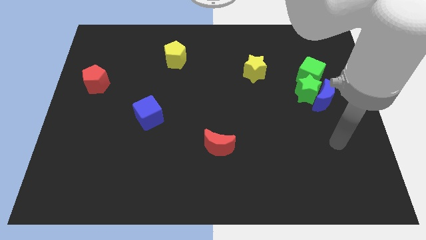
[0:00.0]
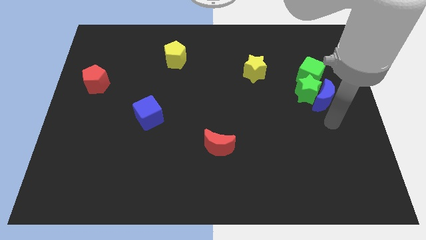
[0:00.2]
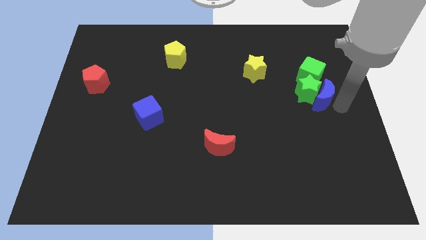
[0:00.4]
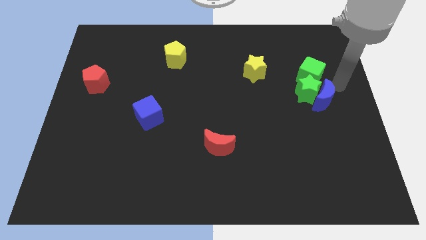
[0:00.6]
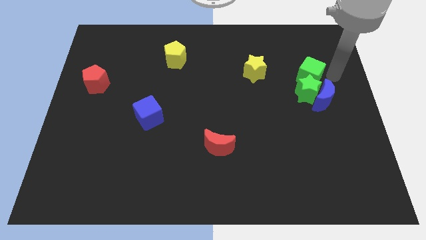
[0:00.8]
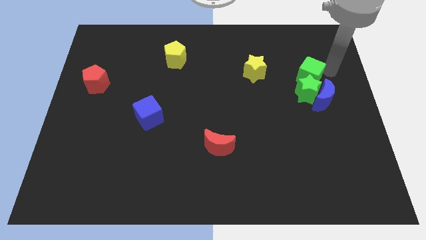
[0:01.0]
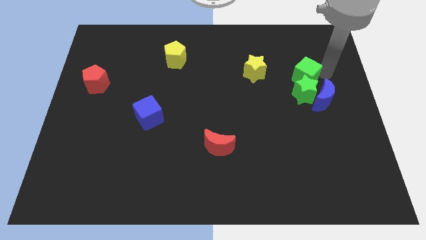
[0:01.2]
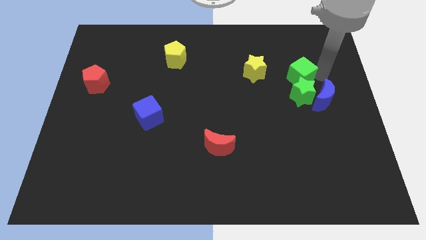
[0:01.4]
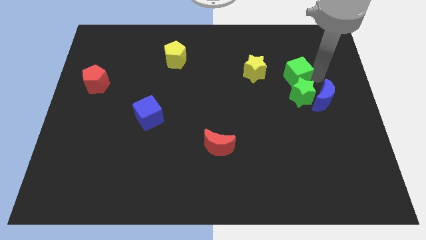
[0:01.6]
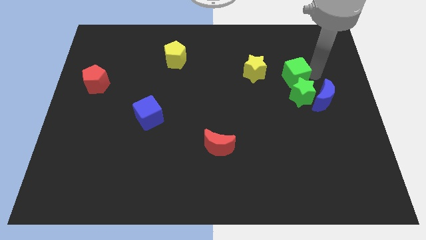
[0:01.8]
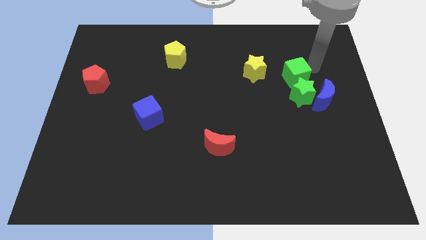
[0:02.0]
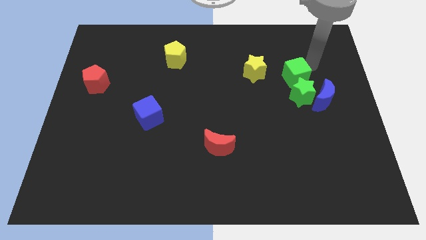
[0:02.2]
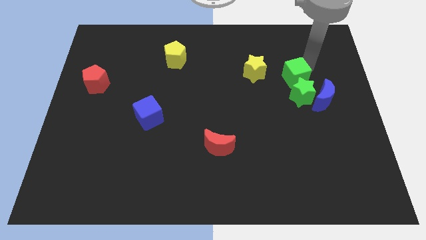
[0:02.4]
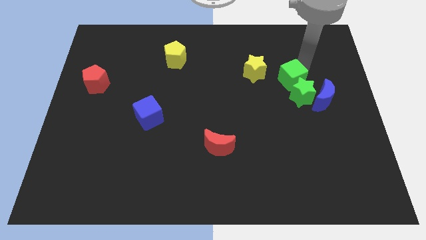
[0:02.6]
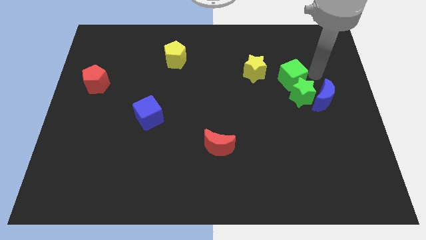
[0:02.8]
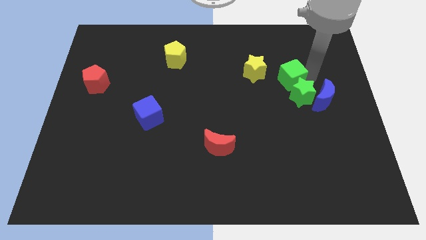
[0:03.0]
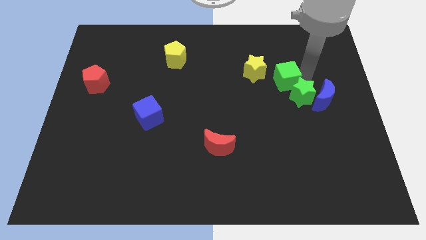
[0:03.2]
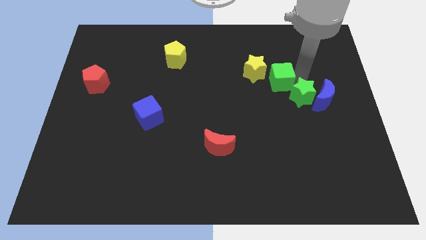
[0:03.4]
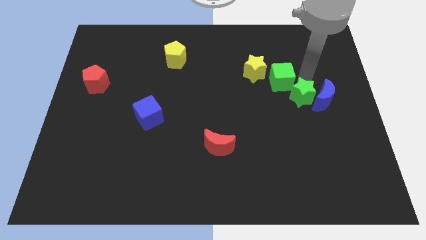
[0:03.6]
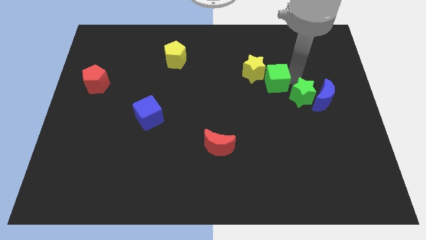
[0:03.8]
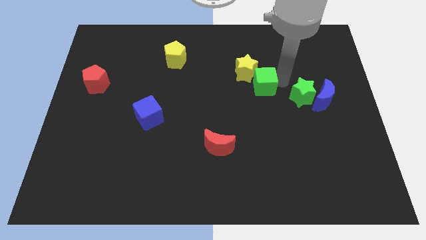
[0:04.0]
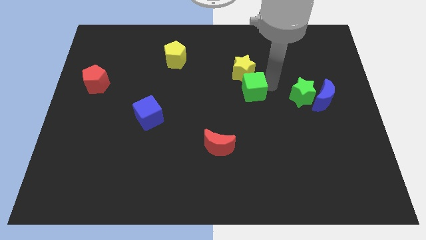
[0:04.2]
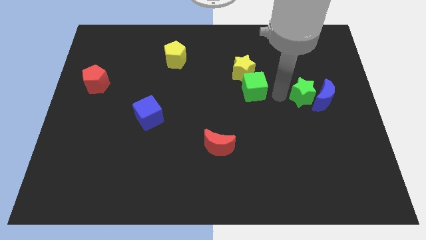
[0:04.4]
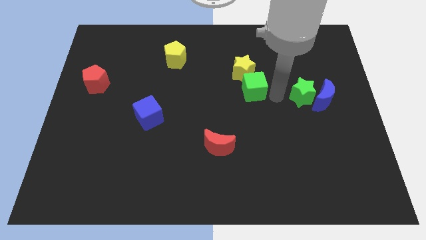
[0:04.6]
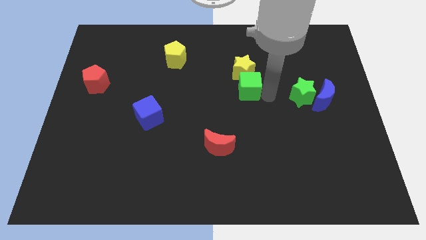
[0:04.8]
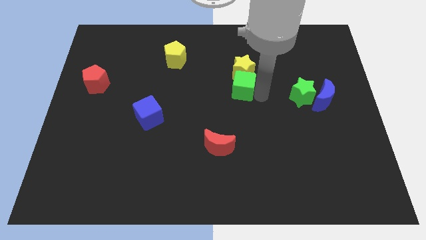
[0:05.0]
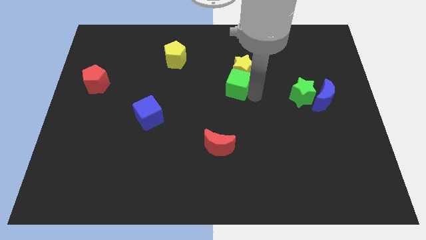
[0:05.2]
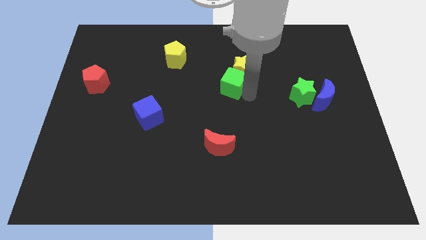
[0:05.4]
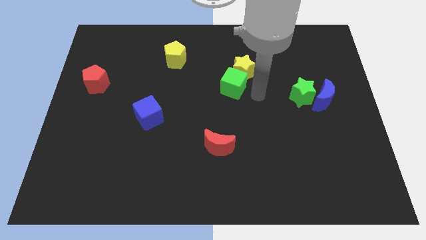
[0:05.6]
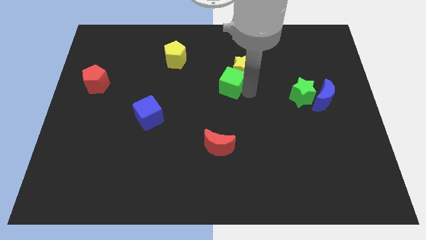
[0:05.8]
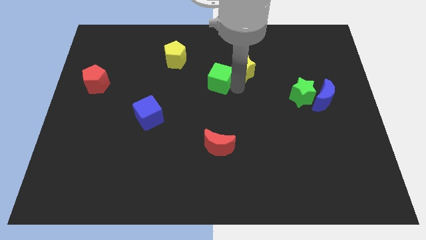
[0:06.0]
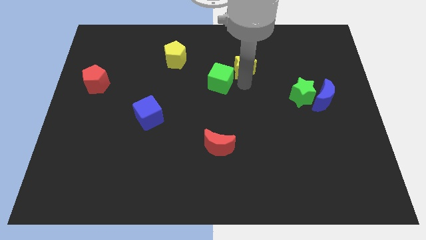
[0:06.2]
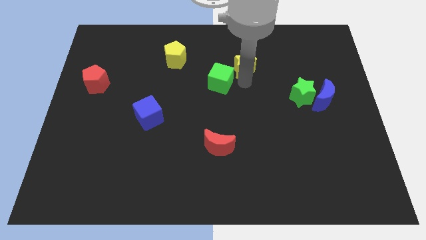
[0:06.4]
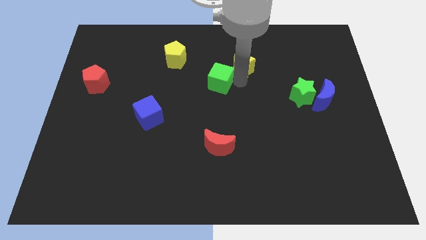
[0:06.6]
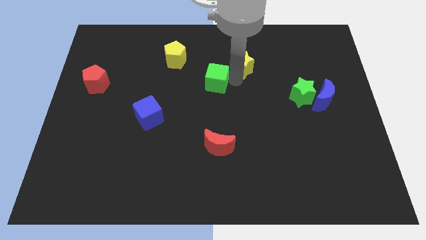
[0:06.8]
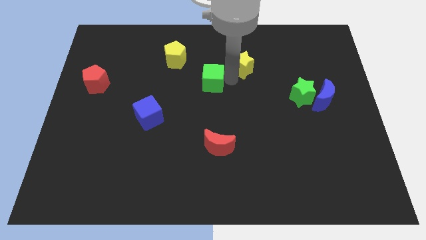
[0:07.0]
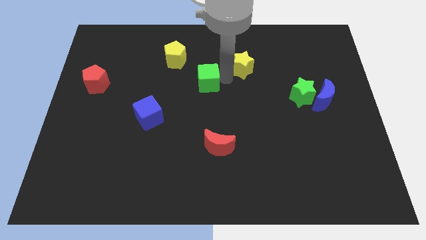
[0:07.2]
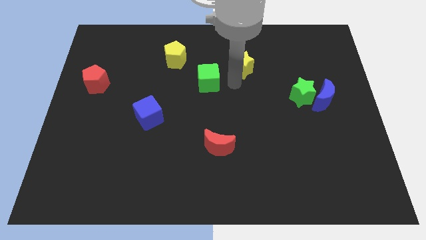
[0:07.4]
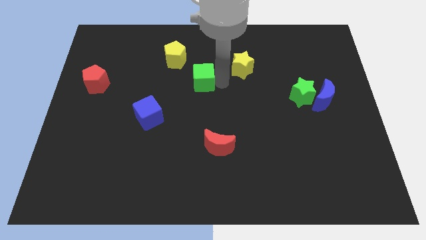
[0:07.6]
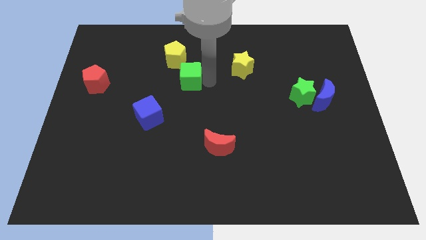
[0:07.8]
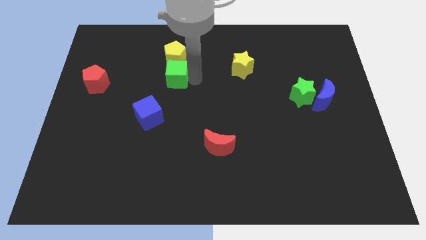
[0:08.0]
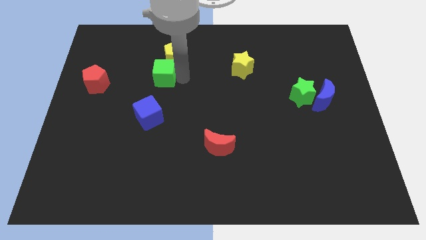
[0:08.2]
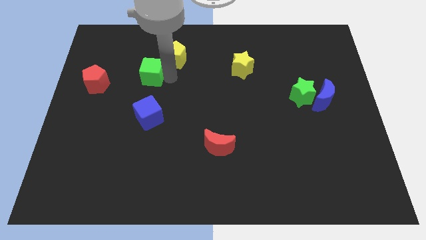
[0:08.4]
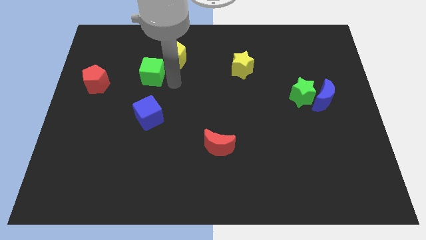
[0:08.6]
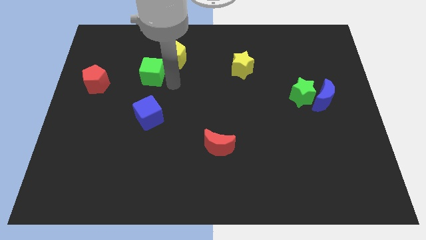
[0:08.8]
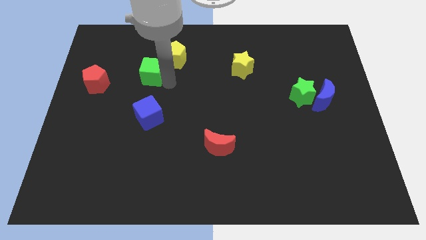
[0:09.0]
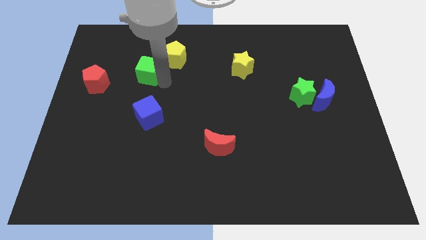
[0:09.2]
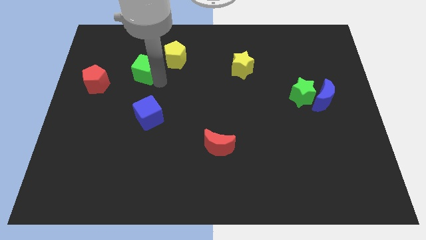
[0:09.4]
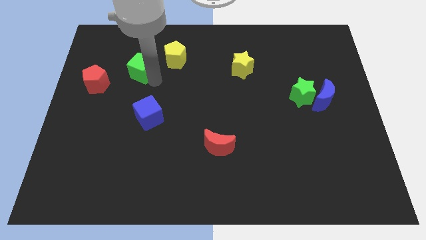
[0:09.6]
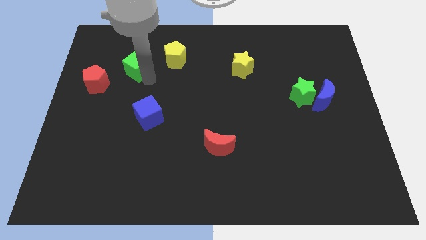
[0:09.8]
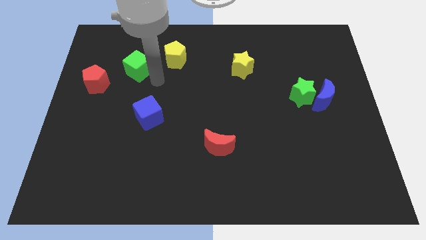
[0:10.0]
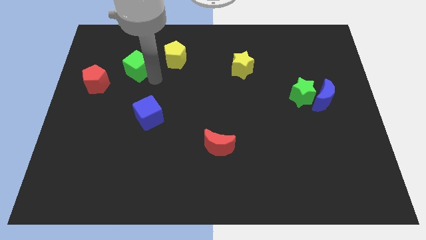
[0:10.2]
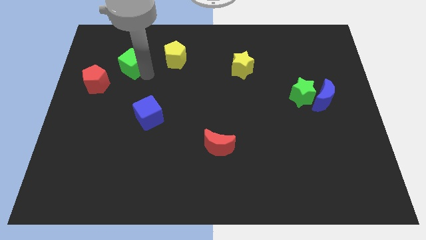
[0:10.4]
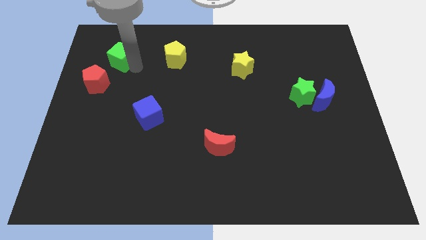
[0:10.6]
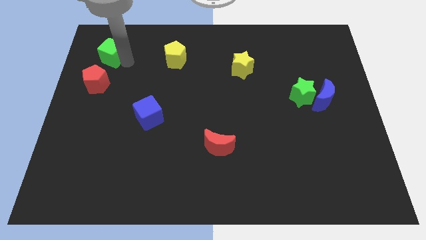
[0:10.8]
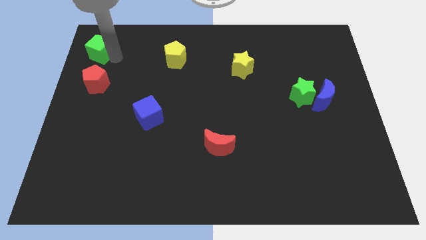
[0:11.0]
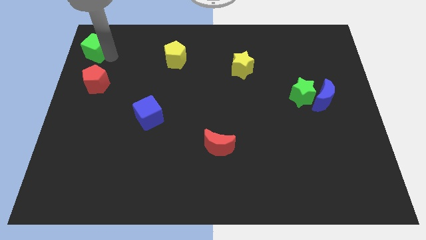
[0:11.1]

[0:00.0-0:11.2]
move the green cube to the top left of the board
